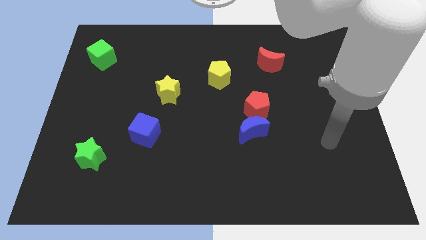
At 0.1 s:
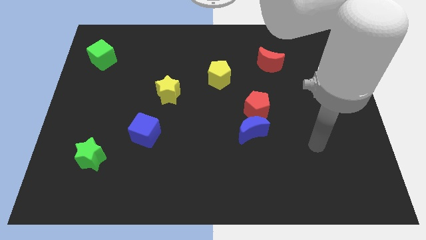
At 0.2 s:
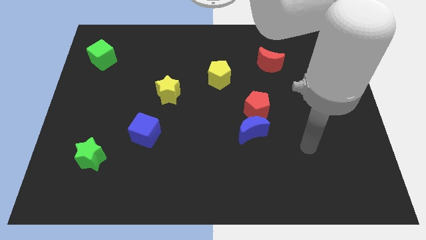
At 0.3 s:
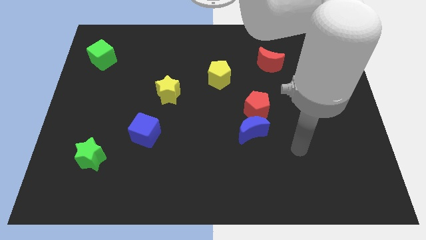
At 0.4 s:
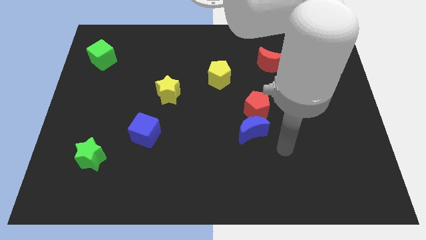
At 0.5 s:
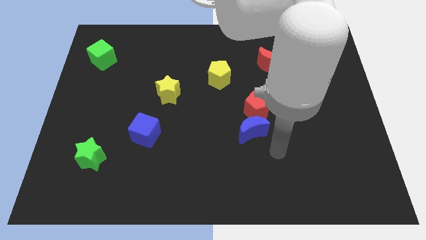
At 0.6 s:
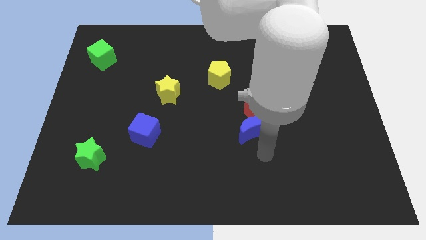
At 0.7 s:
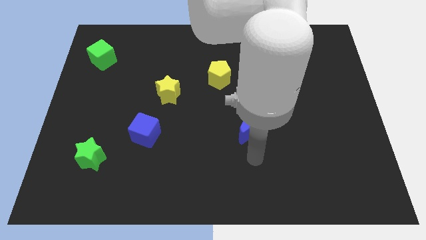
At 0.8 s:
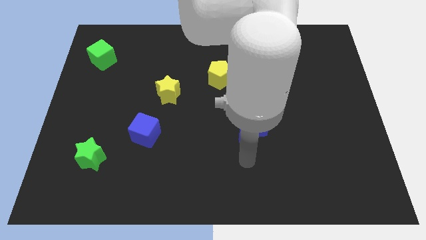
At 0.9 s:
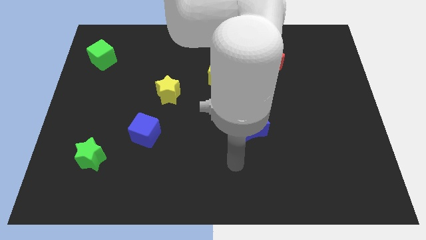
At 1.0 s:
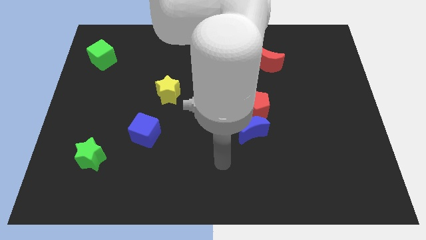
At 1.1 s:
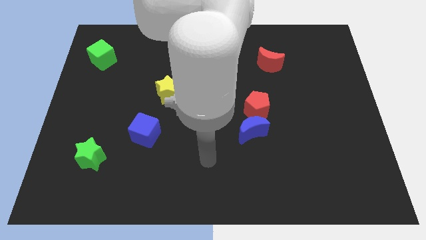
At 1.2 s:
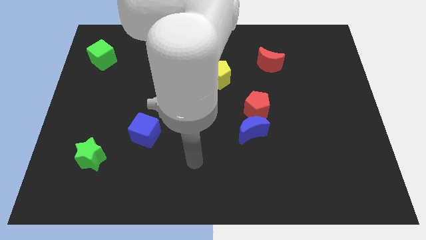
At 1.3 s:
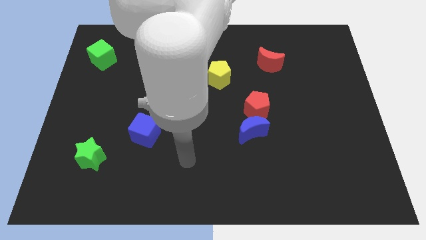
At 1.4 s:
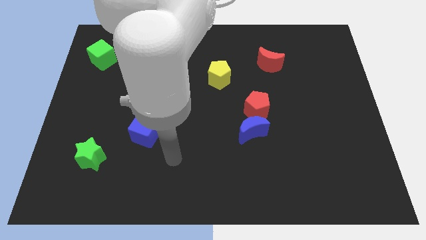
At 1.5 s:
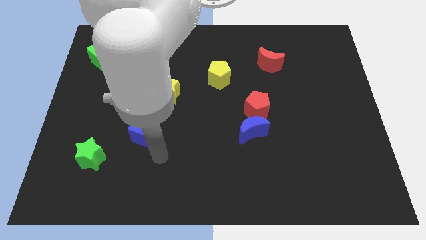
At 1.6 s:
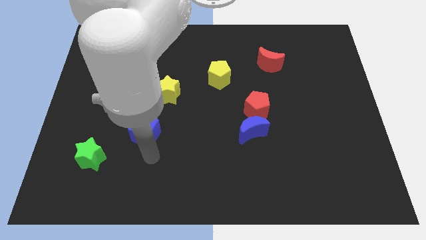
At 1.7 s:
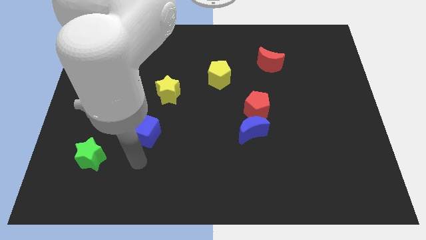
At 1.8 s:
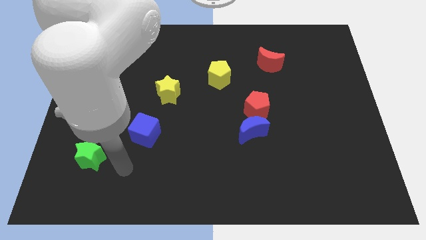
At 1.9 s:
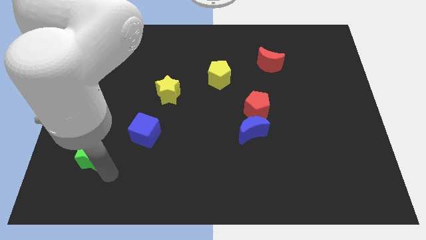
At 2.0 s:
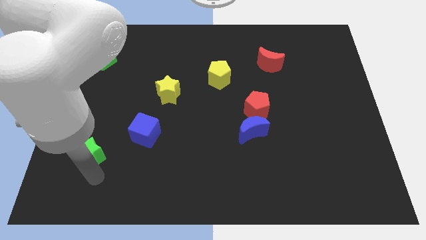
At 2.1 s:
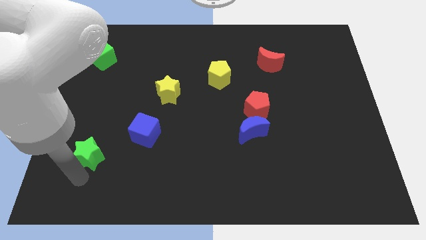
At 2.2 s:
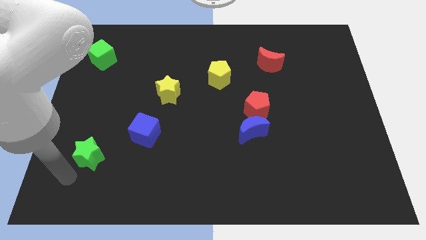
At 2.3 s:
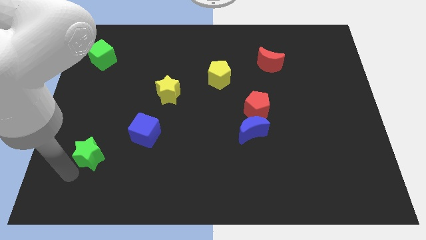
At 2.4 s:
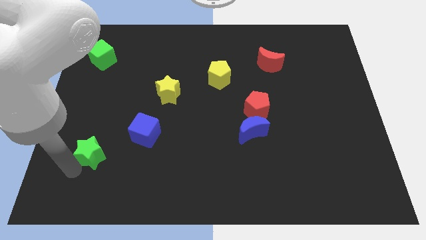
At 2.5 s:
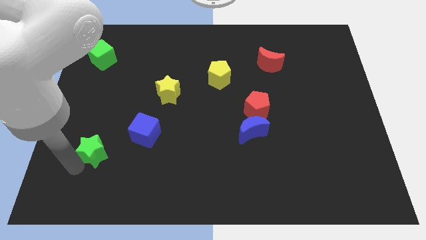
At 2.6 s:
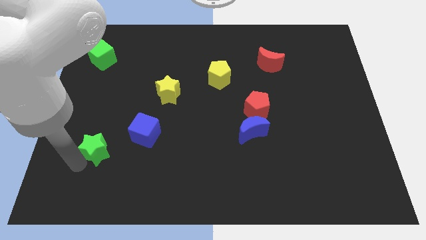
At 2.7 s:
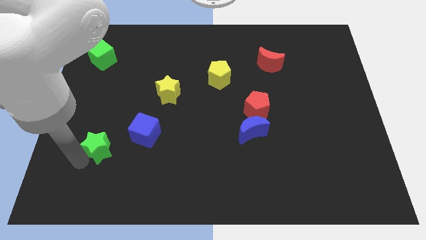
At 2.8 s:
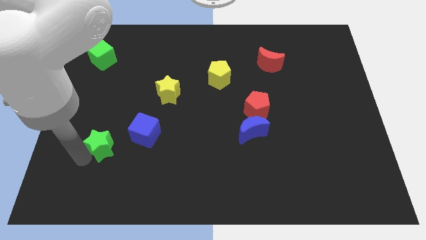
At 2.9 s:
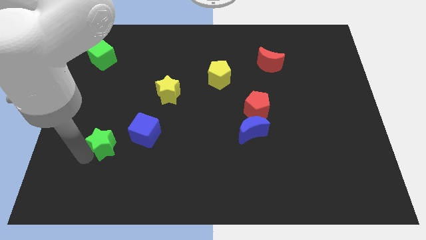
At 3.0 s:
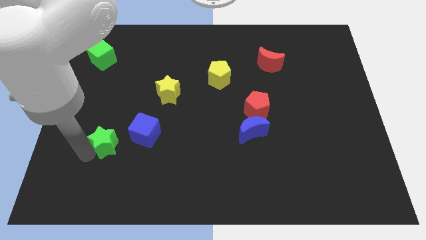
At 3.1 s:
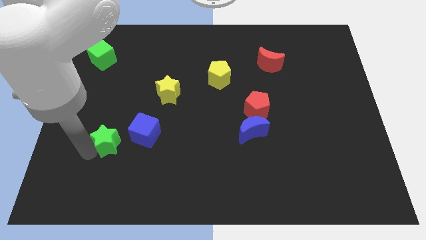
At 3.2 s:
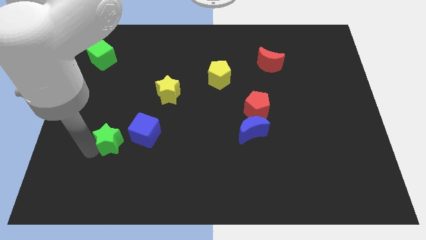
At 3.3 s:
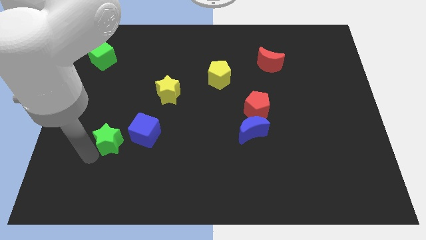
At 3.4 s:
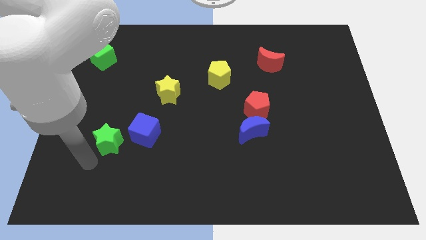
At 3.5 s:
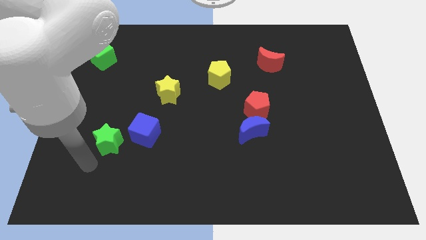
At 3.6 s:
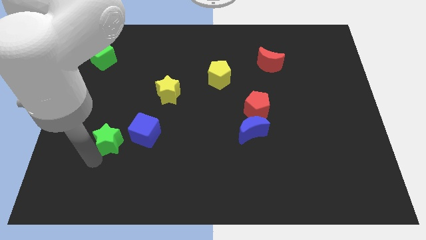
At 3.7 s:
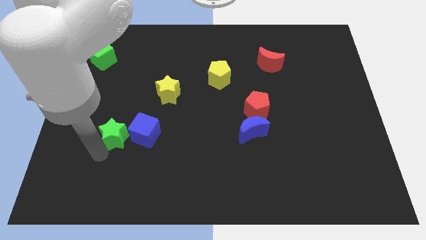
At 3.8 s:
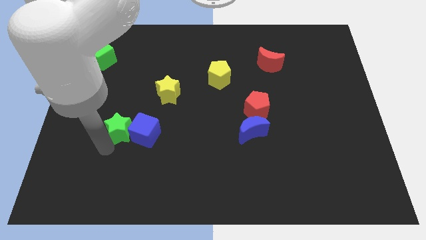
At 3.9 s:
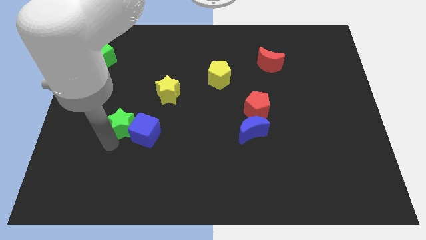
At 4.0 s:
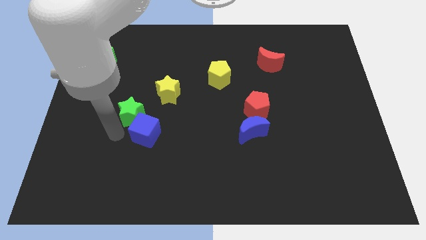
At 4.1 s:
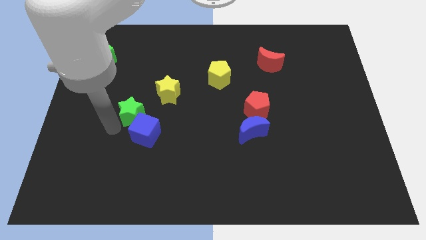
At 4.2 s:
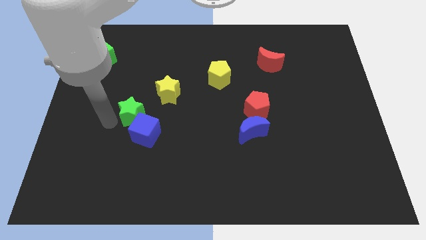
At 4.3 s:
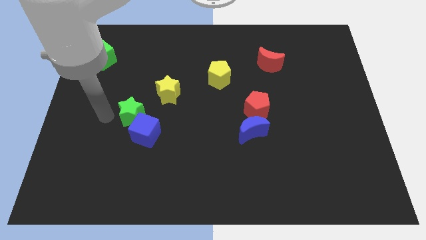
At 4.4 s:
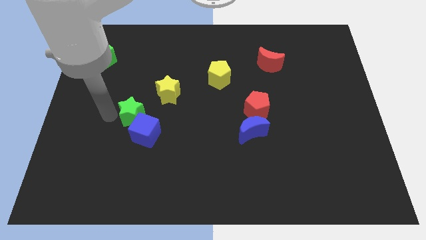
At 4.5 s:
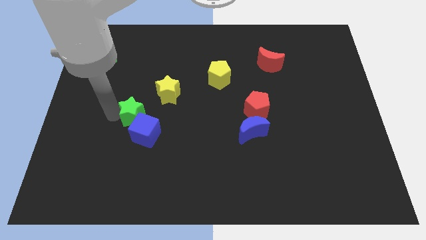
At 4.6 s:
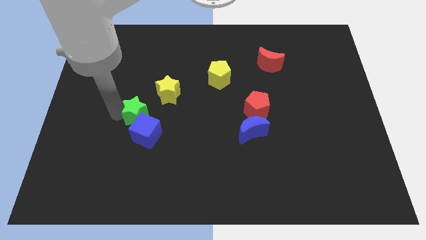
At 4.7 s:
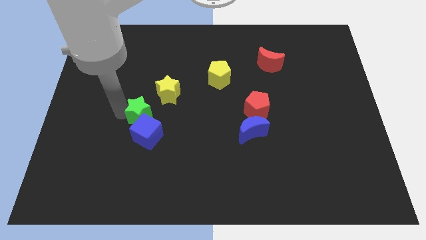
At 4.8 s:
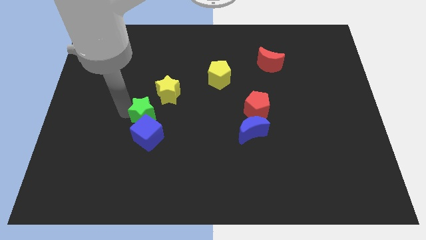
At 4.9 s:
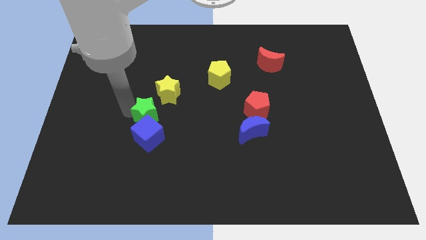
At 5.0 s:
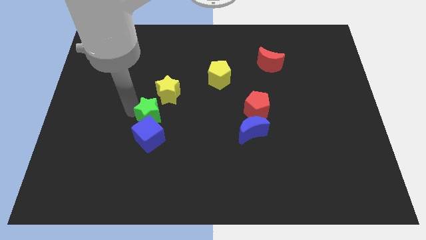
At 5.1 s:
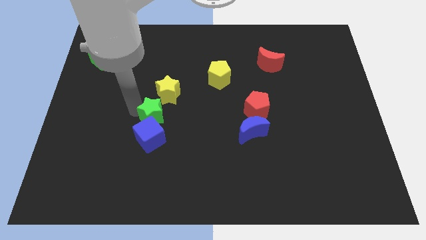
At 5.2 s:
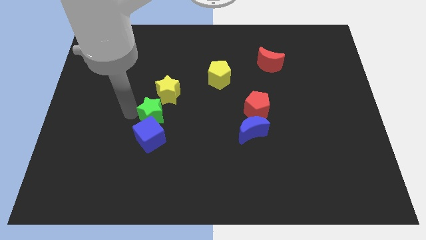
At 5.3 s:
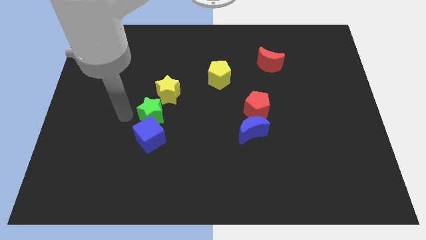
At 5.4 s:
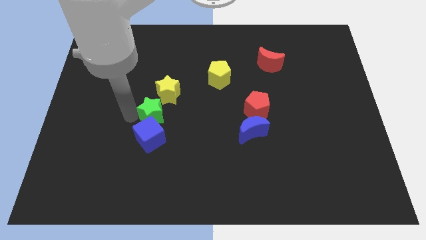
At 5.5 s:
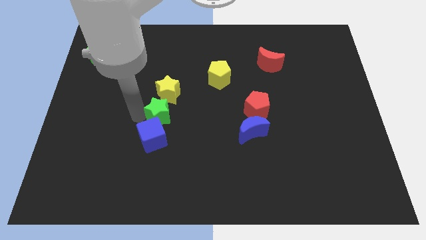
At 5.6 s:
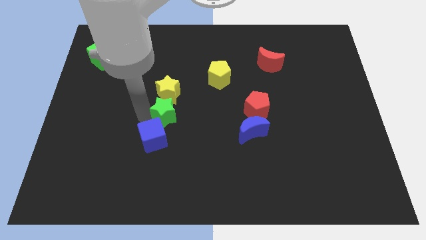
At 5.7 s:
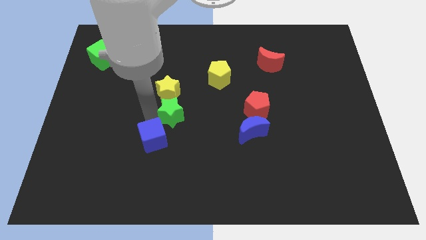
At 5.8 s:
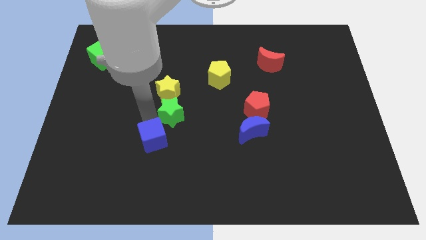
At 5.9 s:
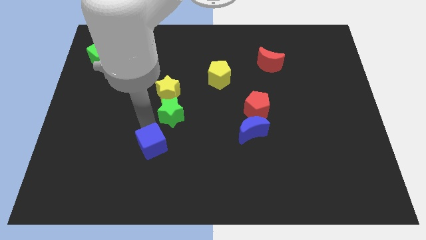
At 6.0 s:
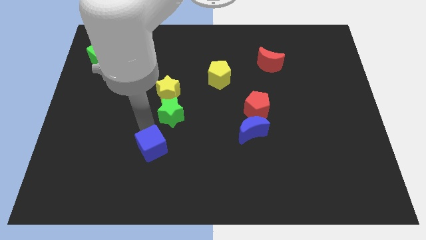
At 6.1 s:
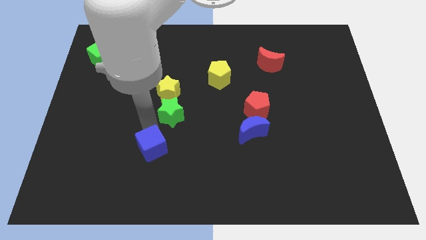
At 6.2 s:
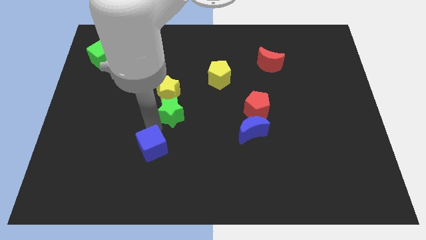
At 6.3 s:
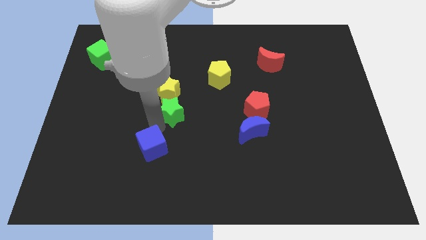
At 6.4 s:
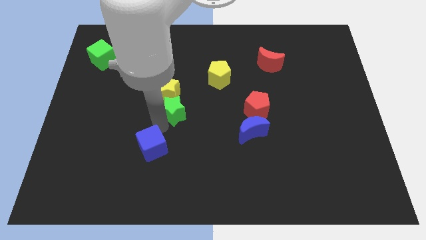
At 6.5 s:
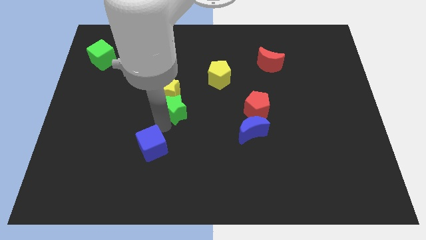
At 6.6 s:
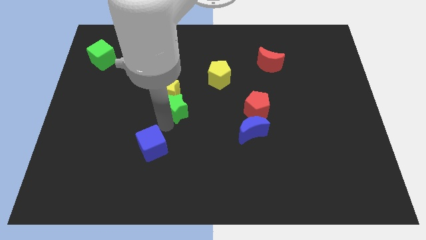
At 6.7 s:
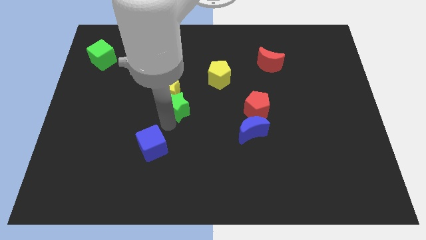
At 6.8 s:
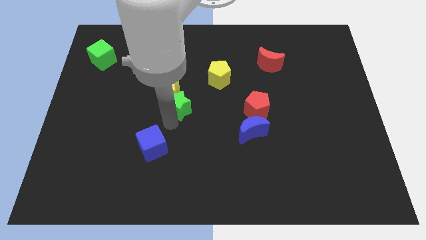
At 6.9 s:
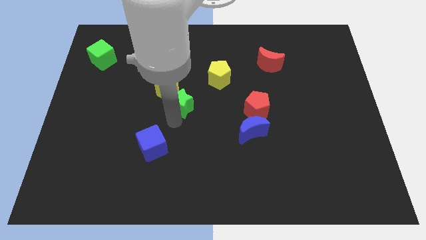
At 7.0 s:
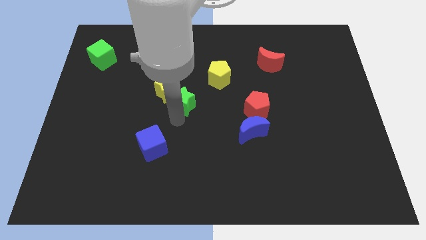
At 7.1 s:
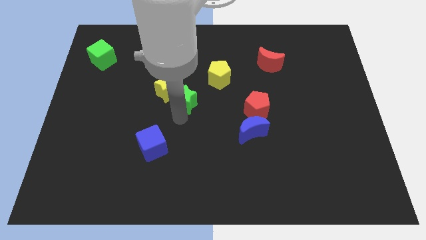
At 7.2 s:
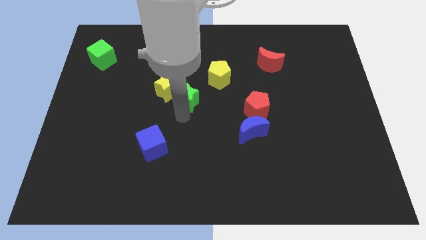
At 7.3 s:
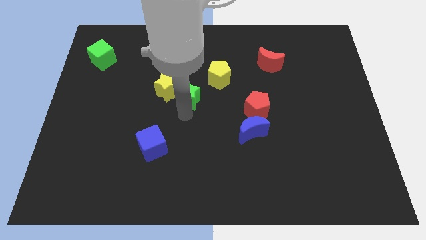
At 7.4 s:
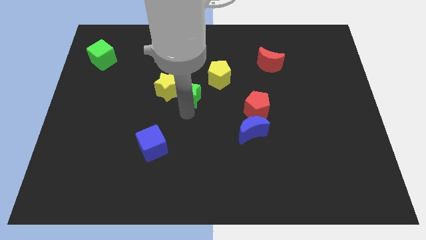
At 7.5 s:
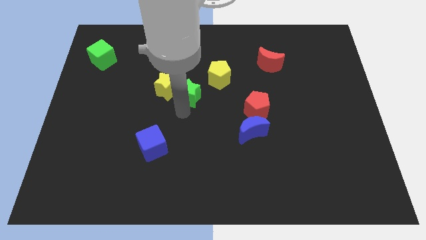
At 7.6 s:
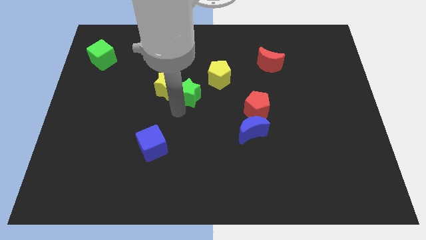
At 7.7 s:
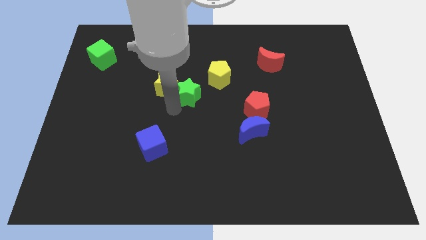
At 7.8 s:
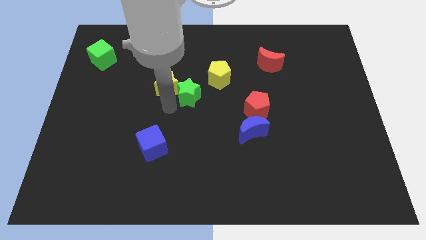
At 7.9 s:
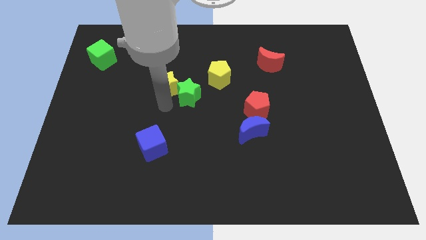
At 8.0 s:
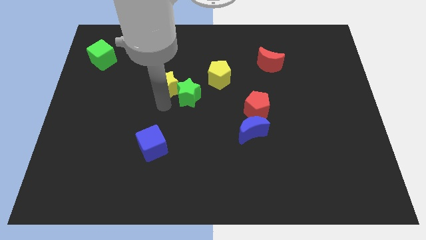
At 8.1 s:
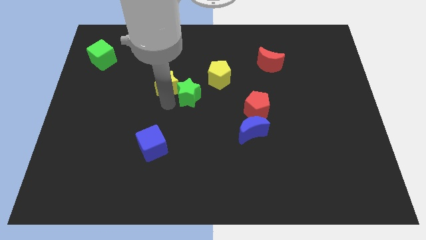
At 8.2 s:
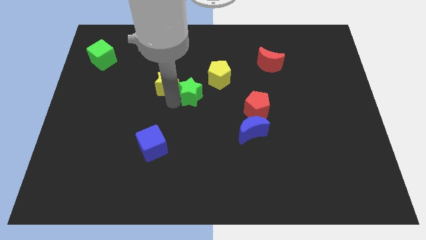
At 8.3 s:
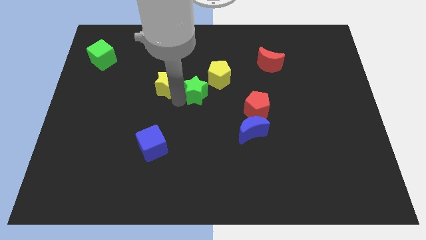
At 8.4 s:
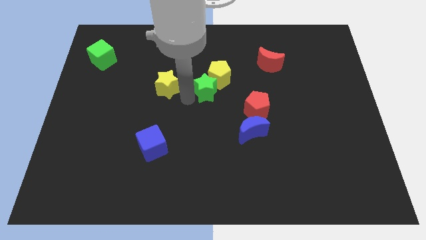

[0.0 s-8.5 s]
put the green star next to the yellow pentagon
